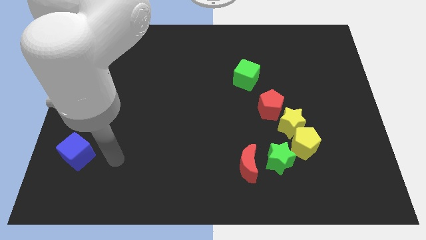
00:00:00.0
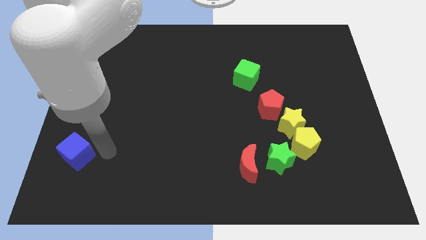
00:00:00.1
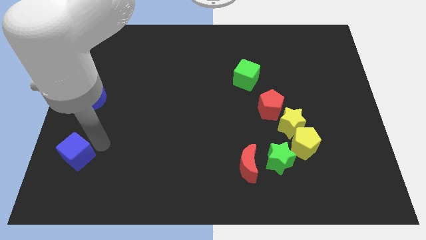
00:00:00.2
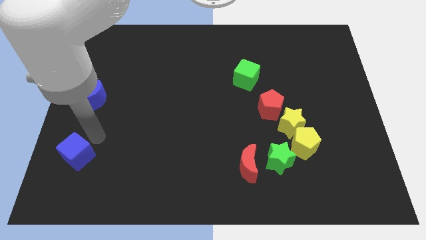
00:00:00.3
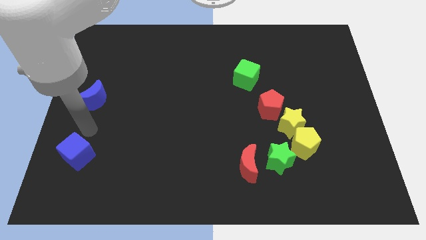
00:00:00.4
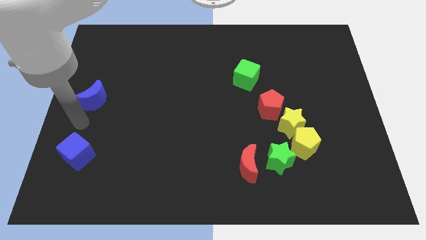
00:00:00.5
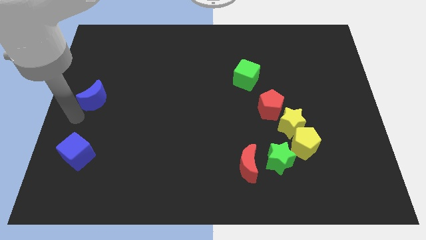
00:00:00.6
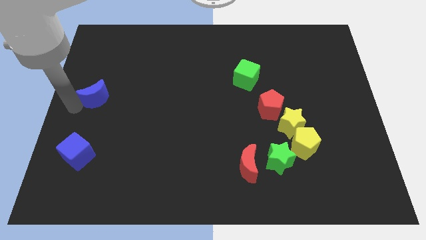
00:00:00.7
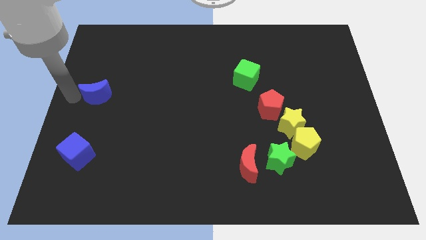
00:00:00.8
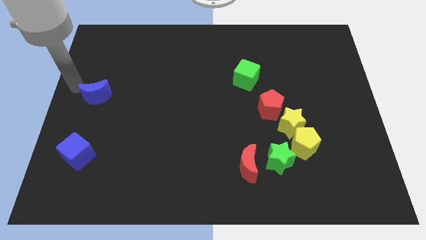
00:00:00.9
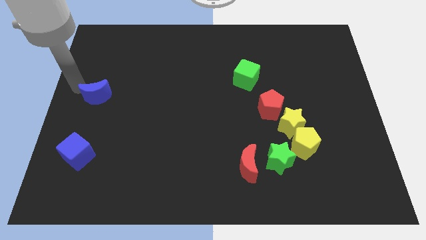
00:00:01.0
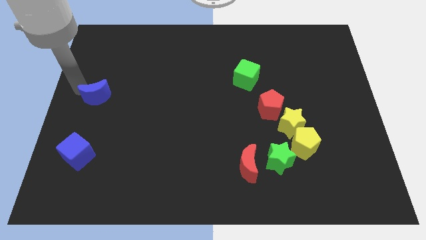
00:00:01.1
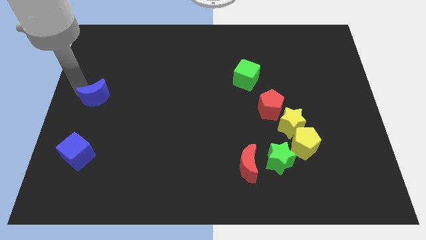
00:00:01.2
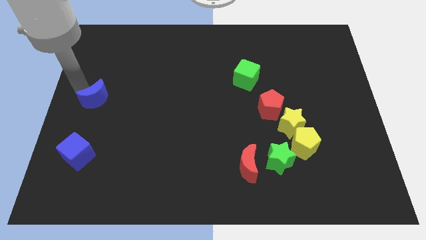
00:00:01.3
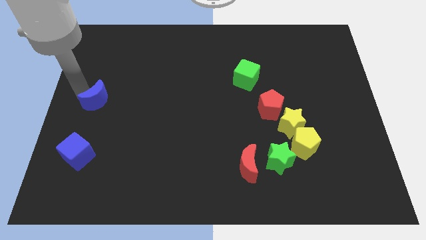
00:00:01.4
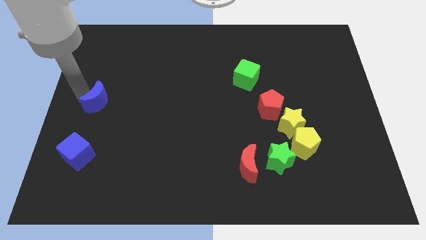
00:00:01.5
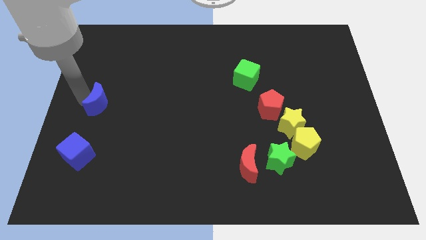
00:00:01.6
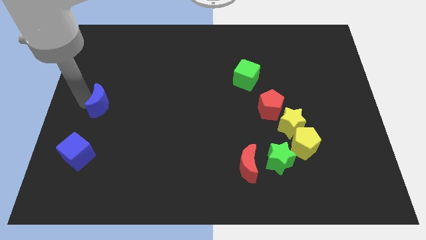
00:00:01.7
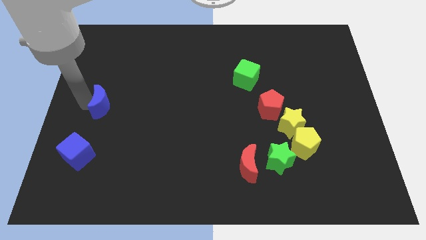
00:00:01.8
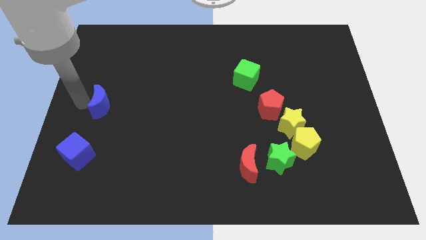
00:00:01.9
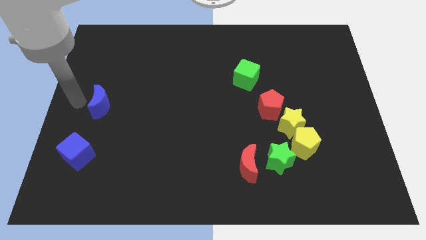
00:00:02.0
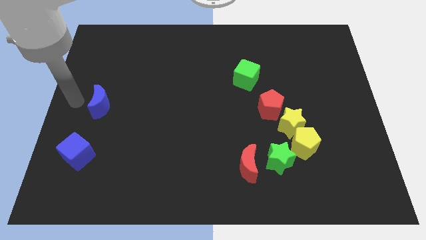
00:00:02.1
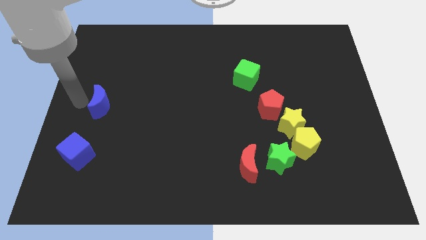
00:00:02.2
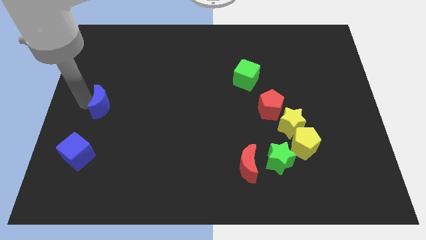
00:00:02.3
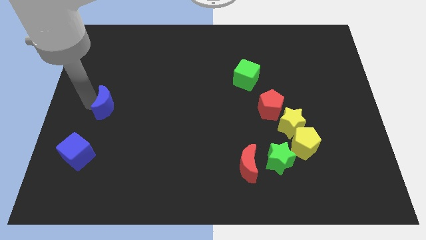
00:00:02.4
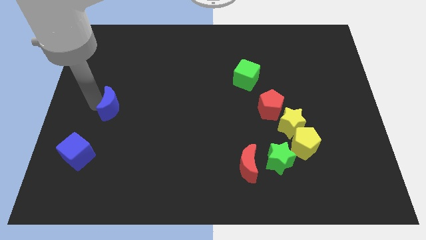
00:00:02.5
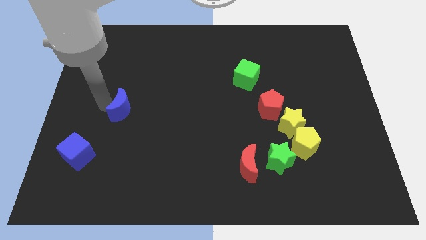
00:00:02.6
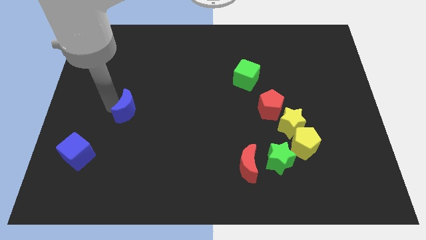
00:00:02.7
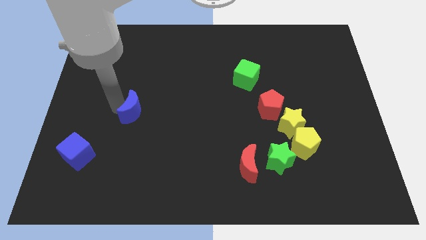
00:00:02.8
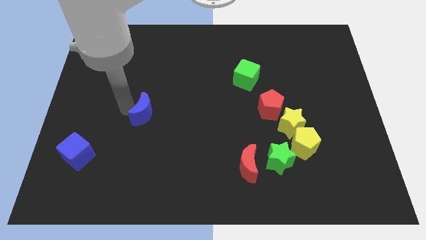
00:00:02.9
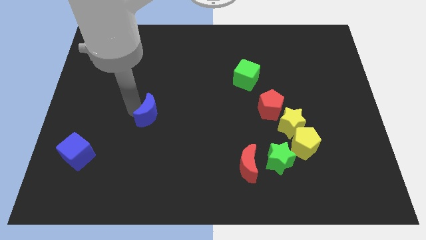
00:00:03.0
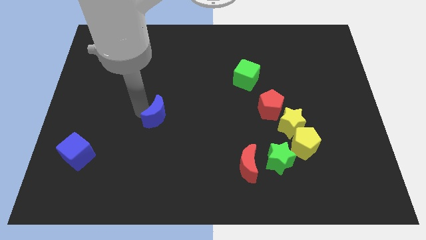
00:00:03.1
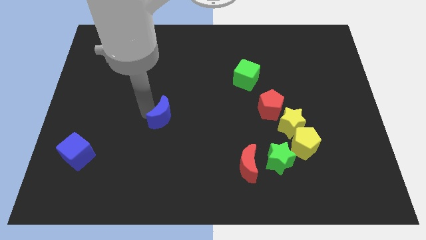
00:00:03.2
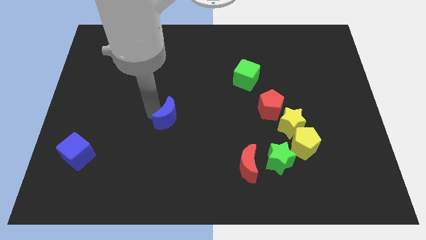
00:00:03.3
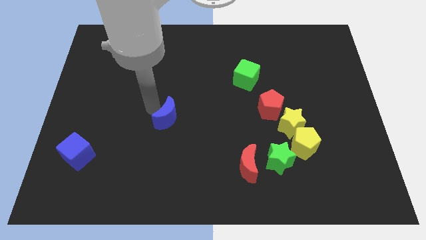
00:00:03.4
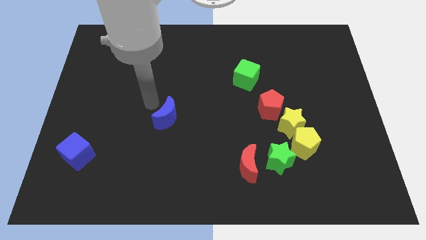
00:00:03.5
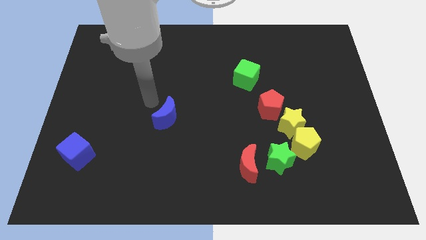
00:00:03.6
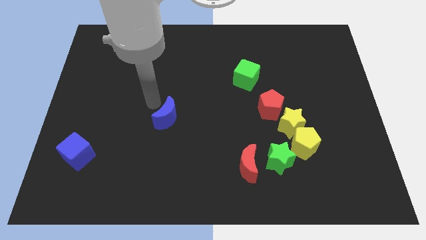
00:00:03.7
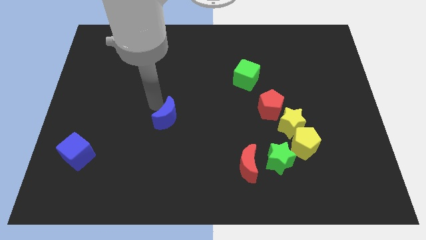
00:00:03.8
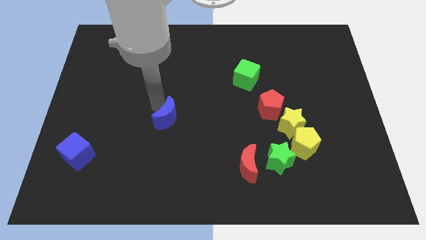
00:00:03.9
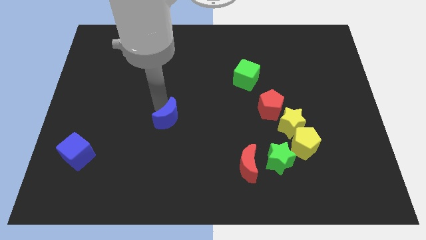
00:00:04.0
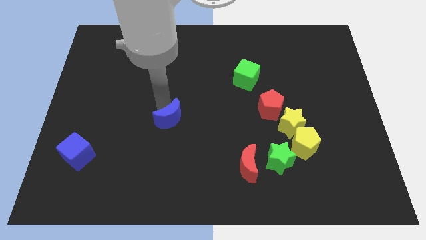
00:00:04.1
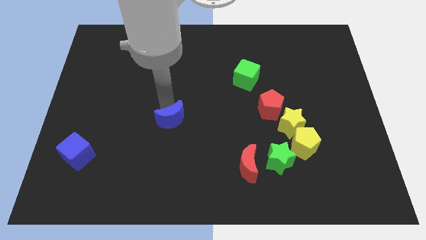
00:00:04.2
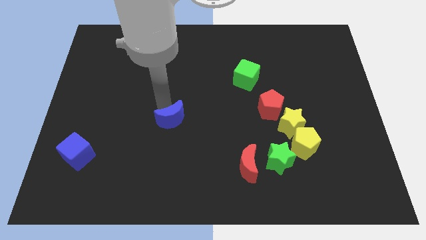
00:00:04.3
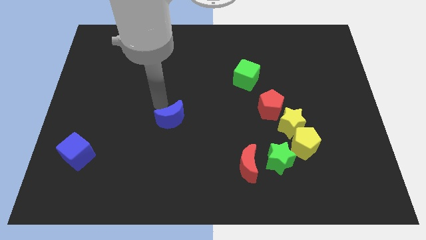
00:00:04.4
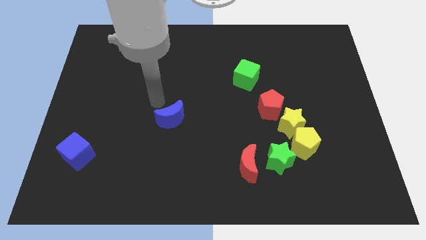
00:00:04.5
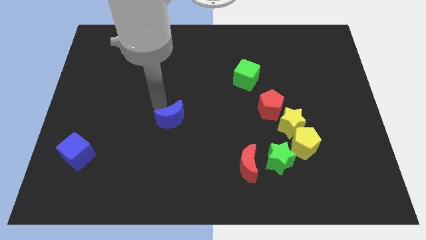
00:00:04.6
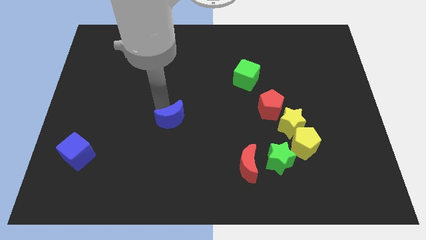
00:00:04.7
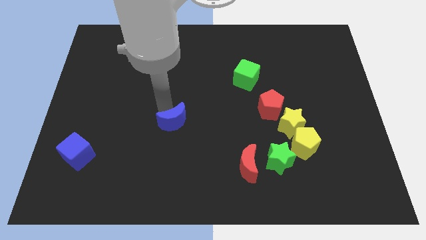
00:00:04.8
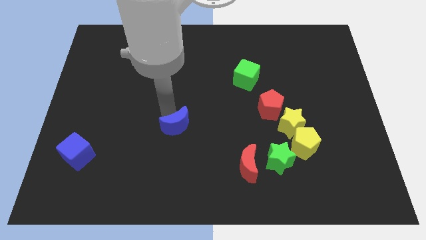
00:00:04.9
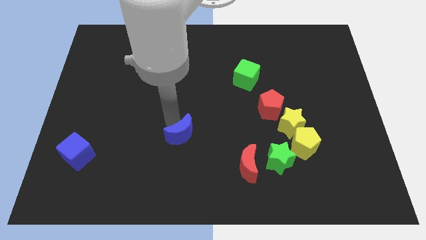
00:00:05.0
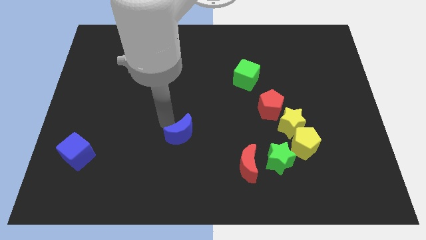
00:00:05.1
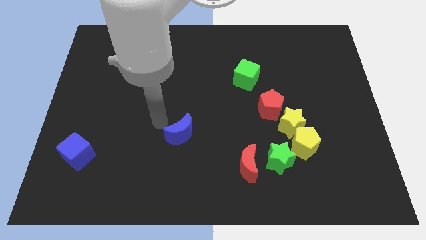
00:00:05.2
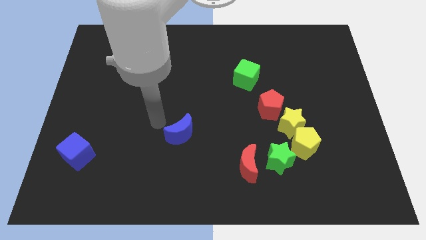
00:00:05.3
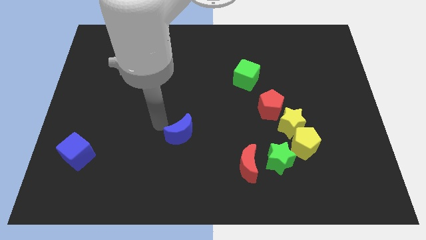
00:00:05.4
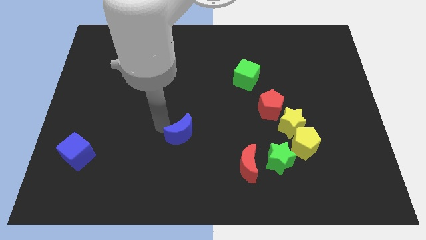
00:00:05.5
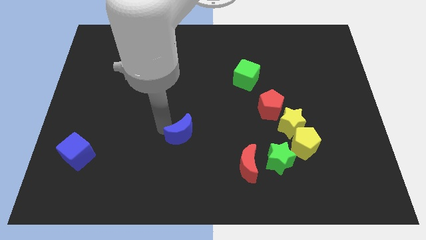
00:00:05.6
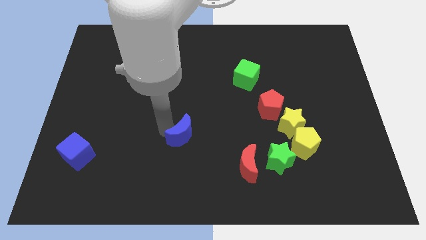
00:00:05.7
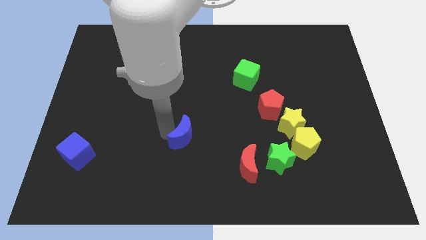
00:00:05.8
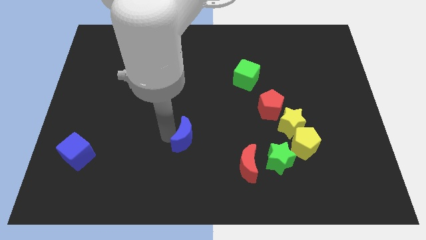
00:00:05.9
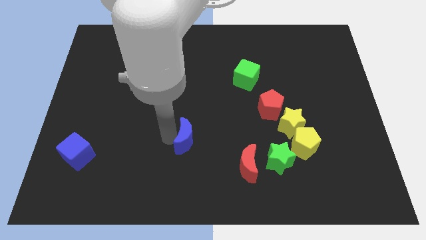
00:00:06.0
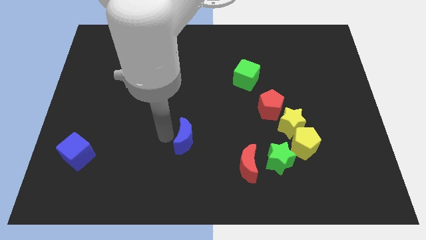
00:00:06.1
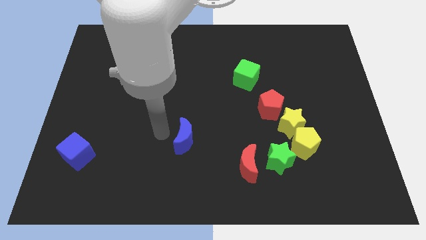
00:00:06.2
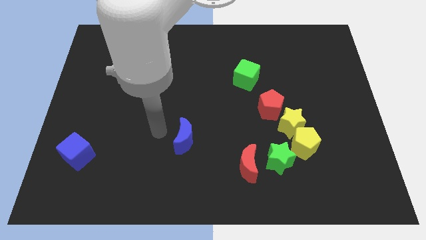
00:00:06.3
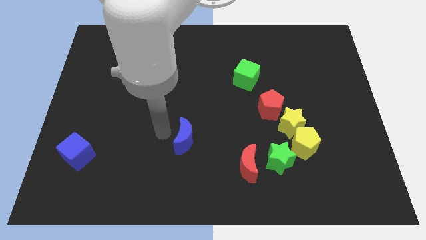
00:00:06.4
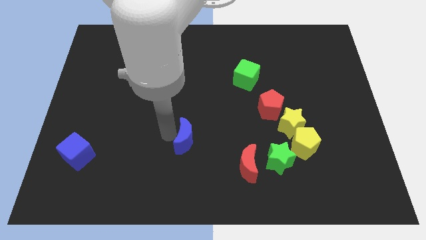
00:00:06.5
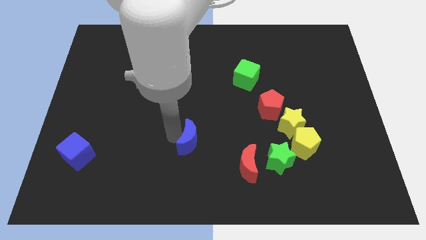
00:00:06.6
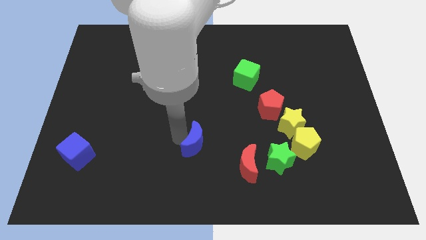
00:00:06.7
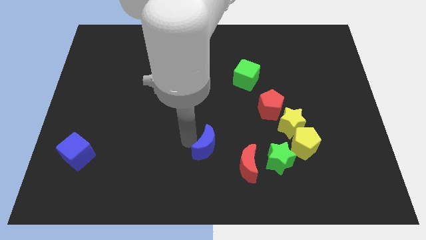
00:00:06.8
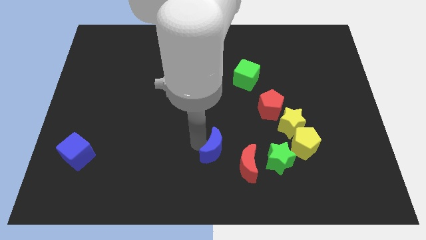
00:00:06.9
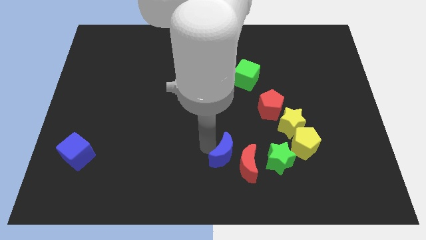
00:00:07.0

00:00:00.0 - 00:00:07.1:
move the blue moon towards the red moon
